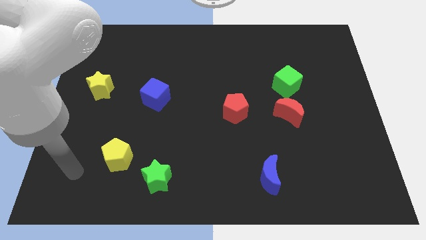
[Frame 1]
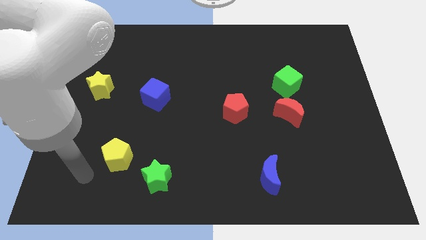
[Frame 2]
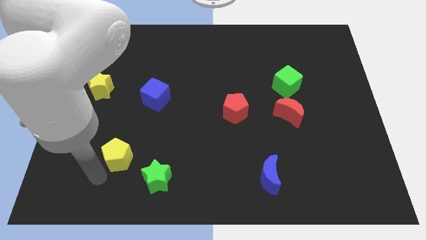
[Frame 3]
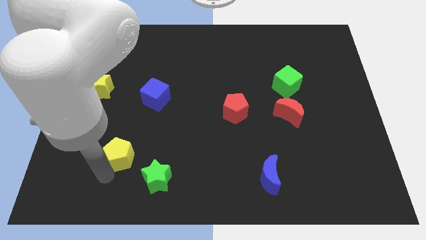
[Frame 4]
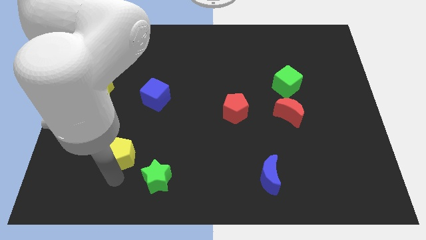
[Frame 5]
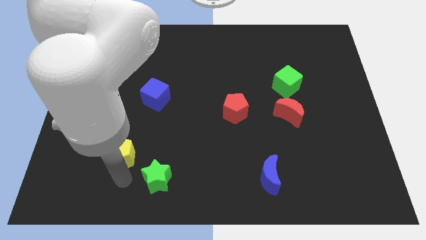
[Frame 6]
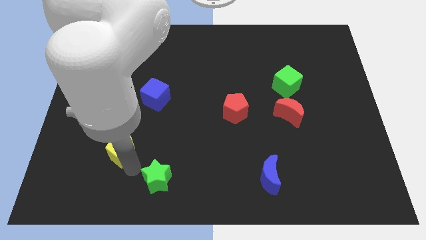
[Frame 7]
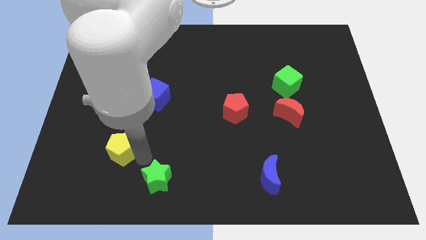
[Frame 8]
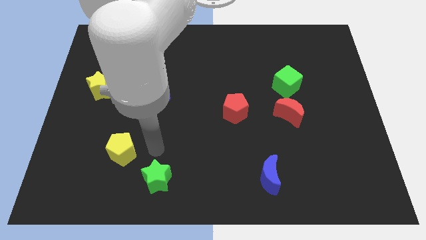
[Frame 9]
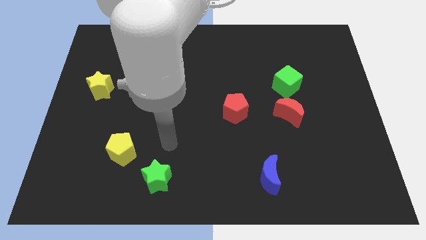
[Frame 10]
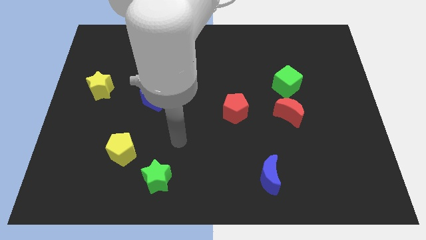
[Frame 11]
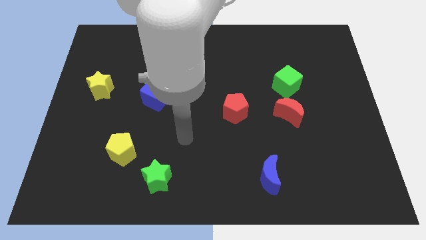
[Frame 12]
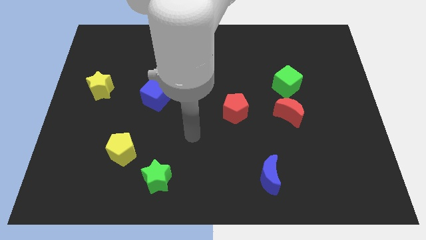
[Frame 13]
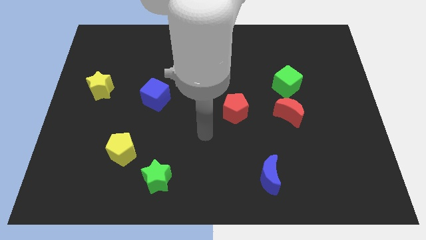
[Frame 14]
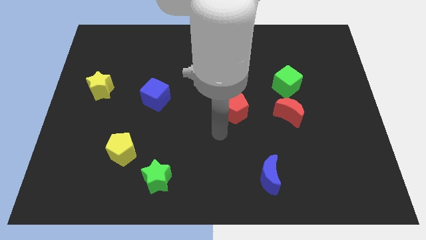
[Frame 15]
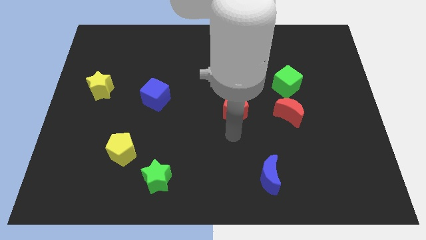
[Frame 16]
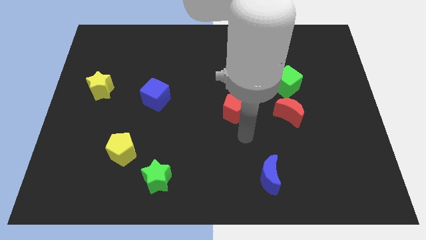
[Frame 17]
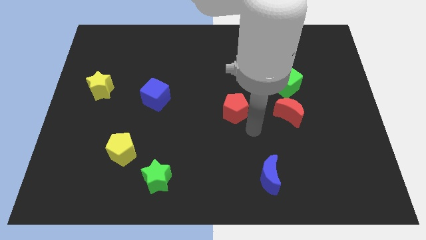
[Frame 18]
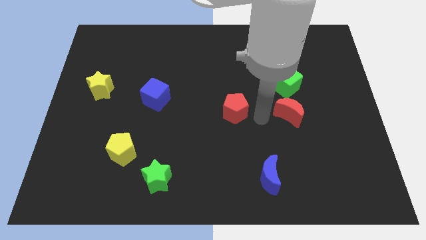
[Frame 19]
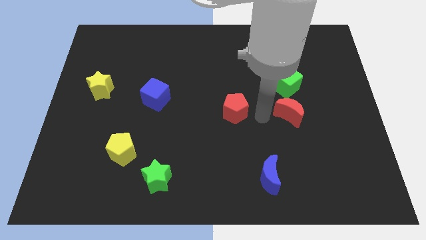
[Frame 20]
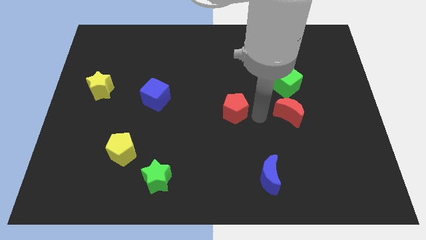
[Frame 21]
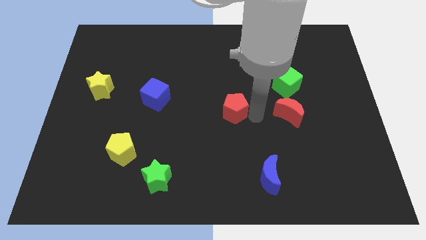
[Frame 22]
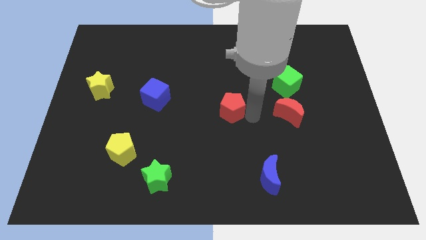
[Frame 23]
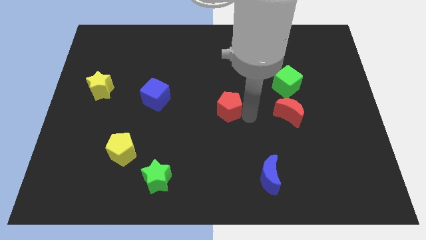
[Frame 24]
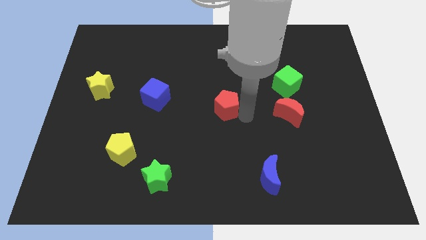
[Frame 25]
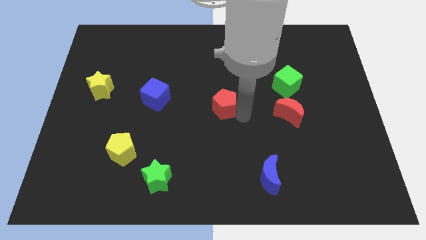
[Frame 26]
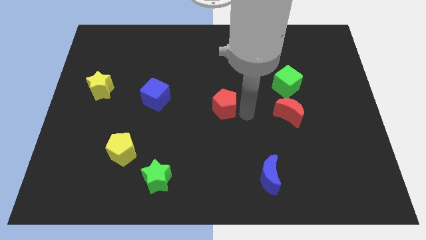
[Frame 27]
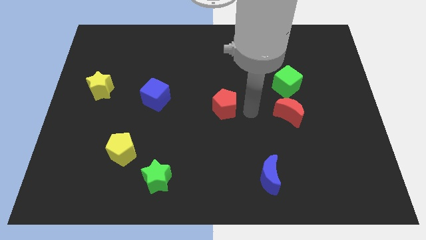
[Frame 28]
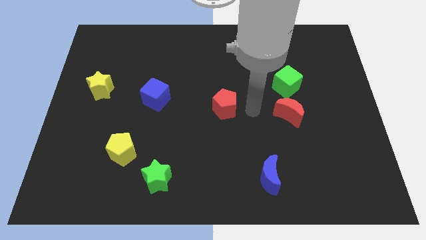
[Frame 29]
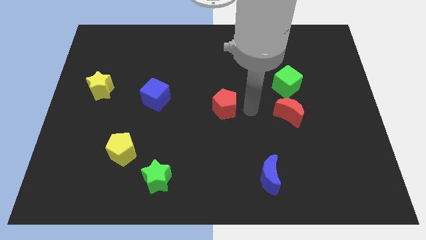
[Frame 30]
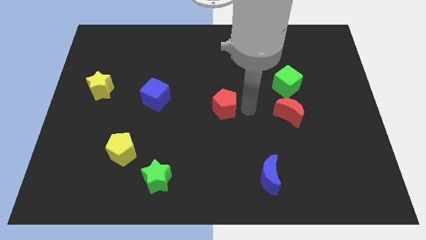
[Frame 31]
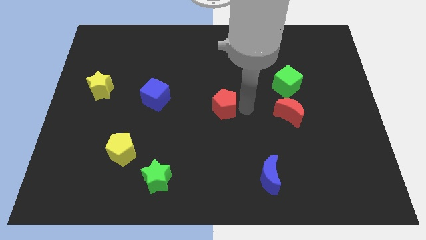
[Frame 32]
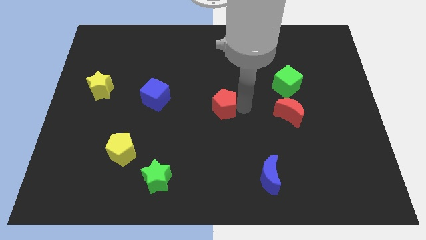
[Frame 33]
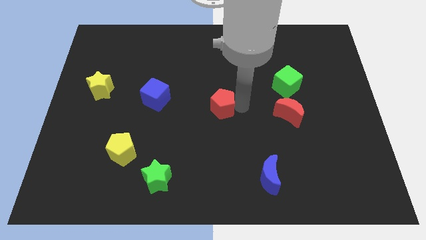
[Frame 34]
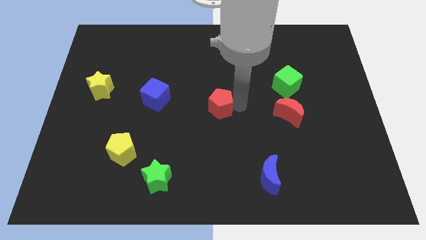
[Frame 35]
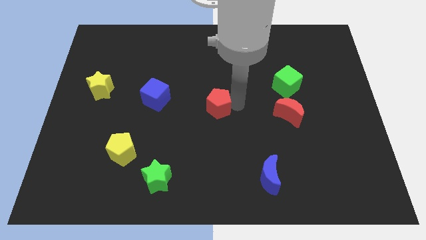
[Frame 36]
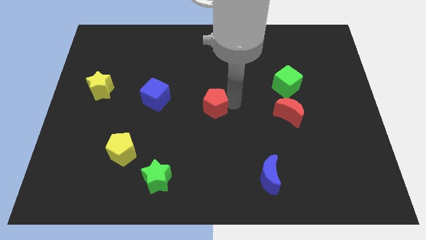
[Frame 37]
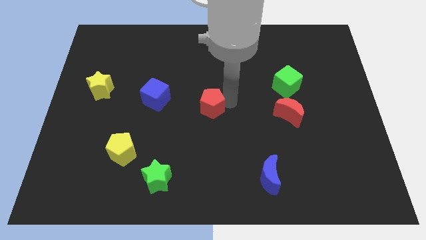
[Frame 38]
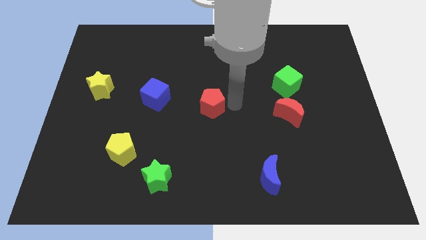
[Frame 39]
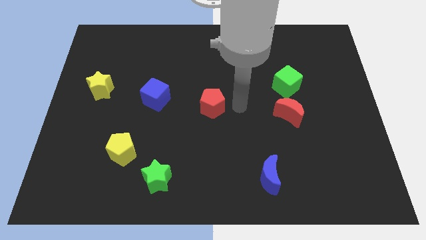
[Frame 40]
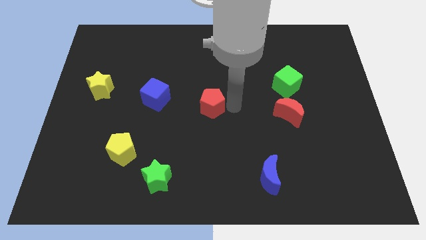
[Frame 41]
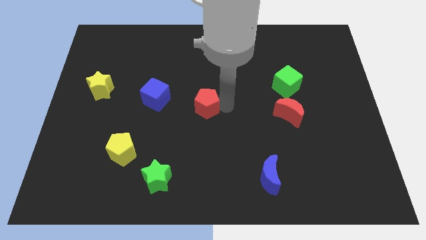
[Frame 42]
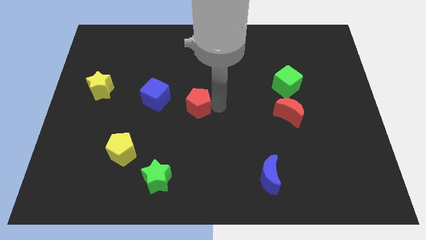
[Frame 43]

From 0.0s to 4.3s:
push the red pentagon left a little bit

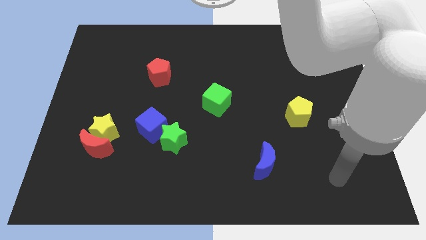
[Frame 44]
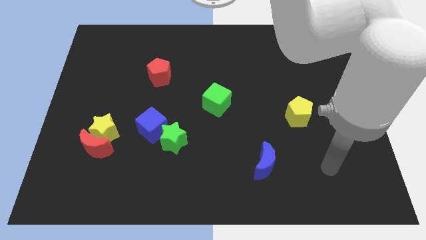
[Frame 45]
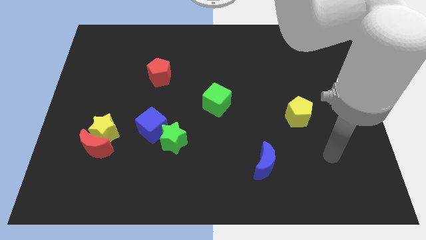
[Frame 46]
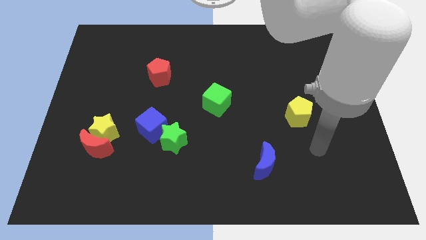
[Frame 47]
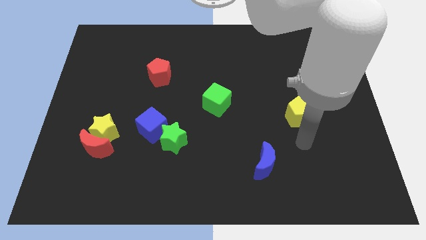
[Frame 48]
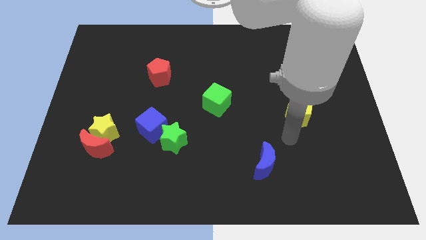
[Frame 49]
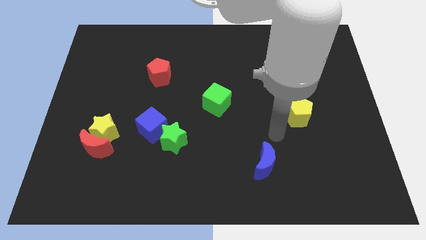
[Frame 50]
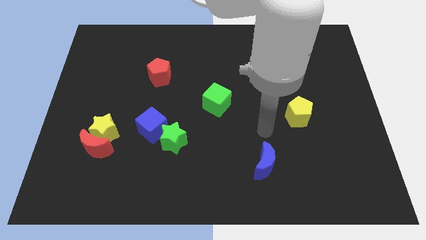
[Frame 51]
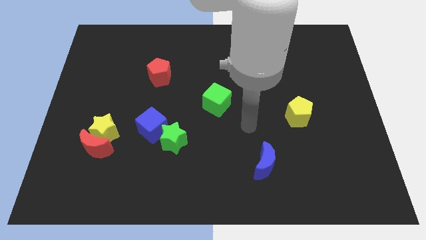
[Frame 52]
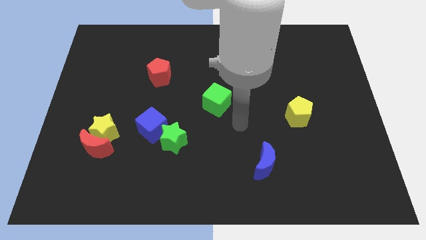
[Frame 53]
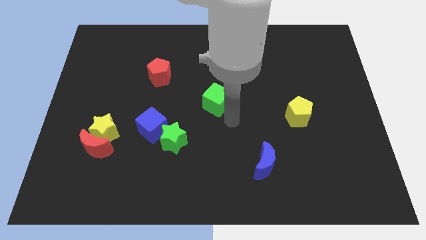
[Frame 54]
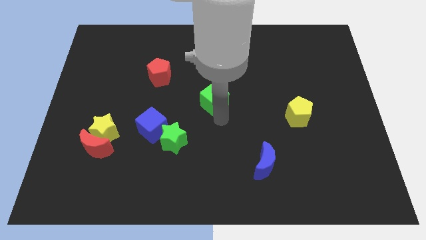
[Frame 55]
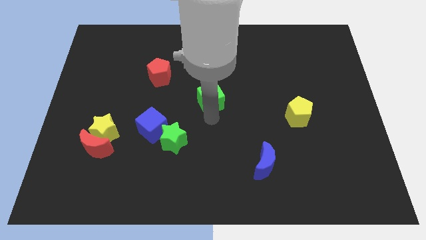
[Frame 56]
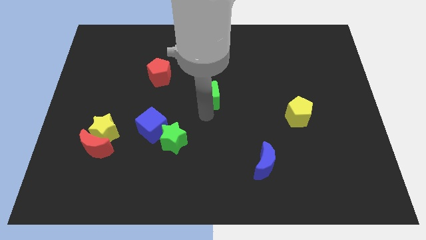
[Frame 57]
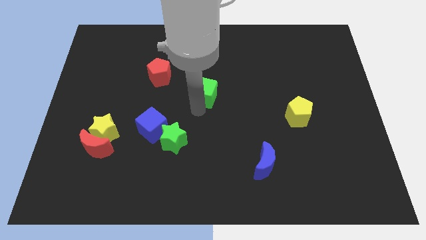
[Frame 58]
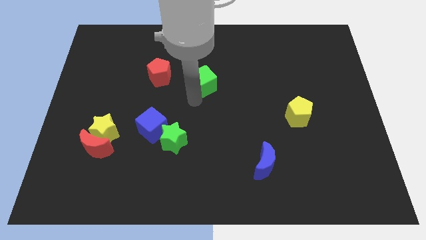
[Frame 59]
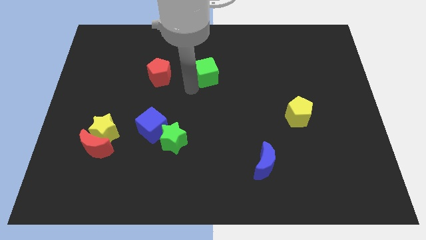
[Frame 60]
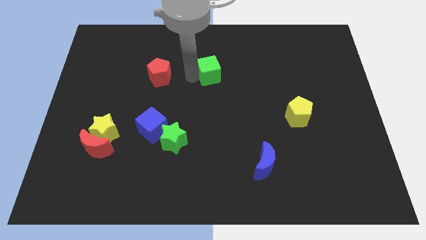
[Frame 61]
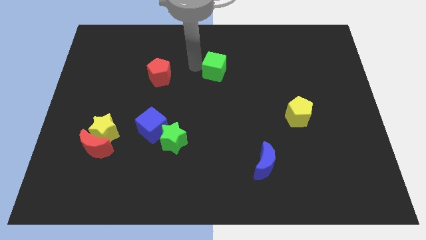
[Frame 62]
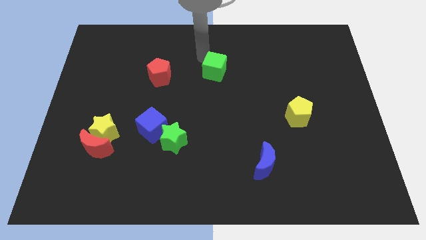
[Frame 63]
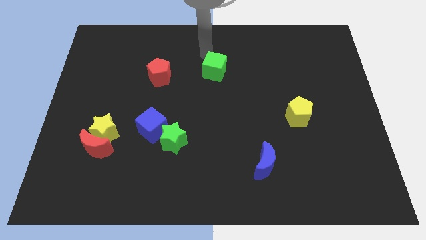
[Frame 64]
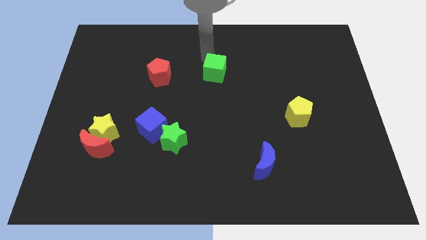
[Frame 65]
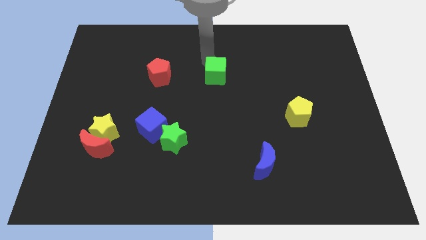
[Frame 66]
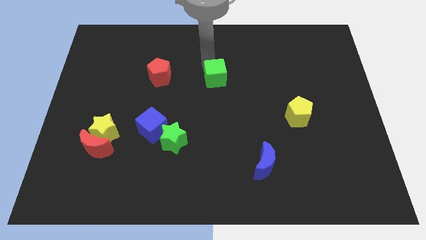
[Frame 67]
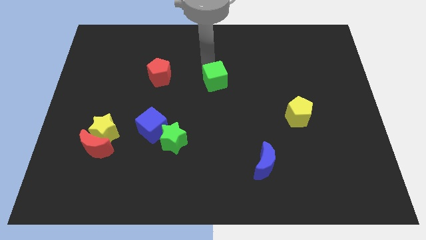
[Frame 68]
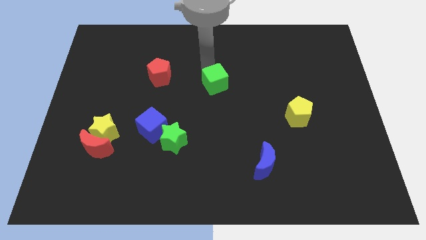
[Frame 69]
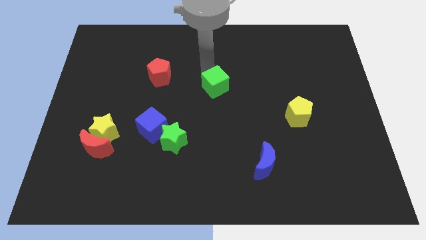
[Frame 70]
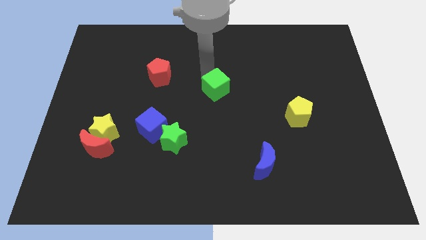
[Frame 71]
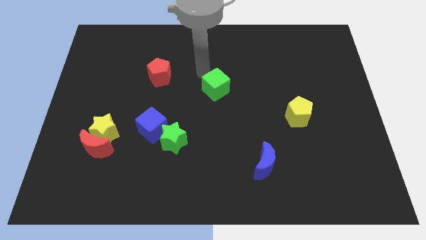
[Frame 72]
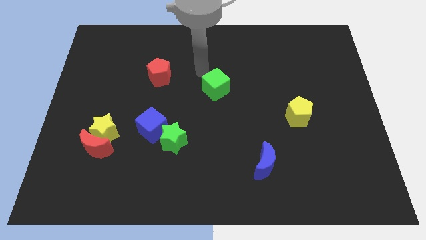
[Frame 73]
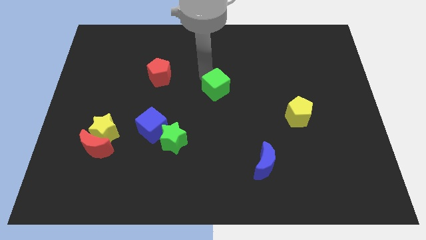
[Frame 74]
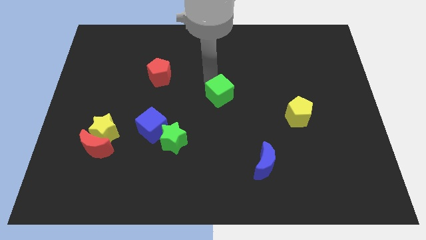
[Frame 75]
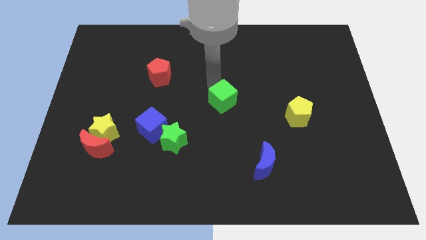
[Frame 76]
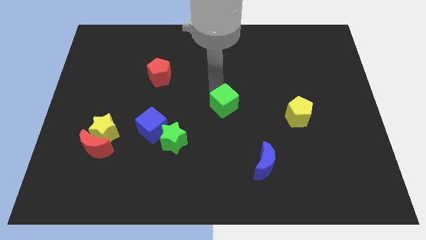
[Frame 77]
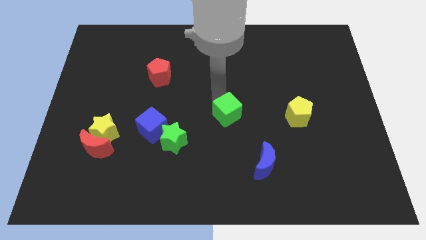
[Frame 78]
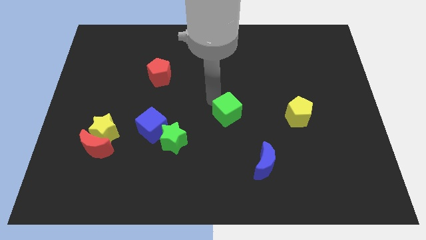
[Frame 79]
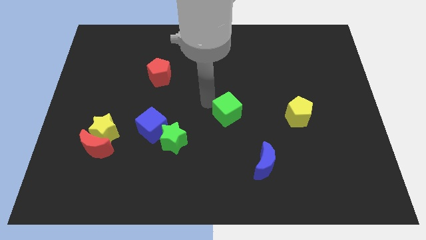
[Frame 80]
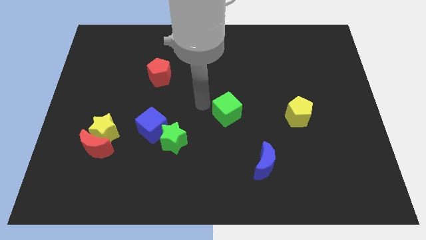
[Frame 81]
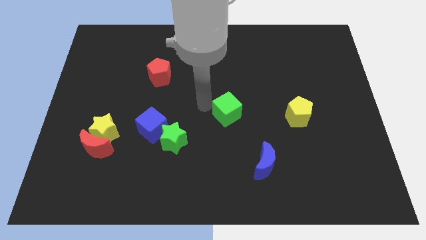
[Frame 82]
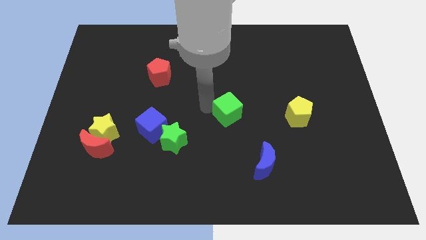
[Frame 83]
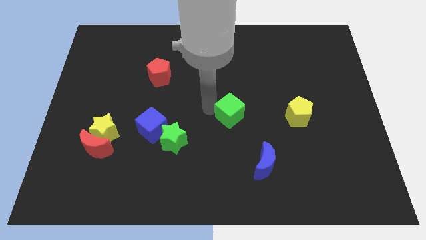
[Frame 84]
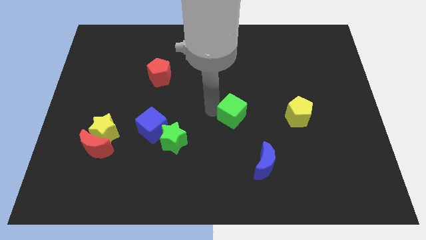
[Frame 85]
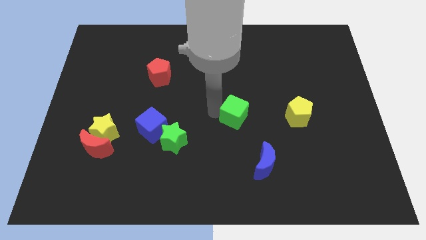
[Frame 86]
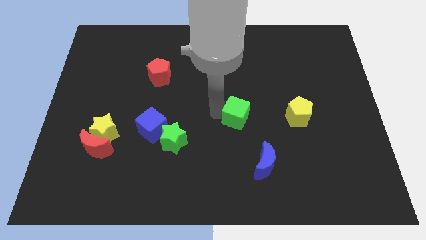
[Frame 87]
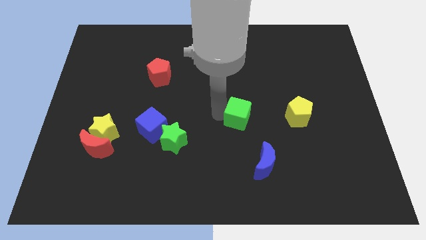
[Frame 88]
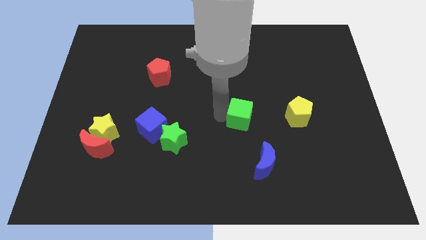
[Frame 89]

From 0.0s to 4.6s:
slide the green cube diagonally downwards and to the right somewhat
